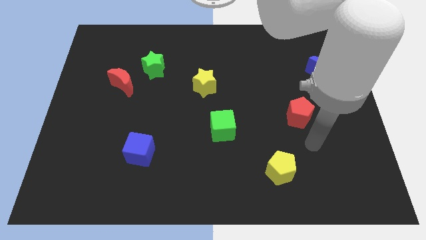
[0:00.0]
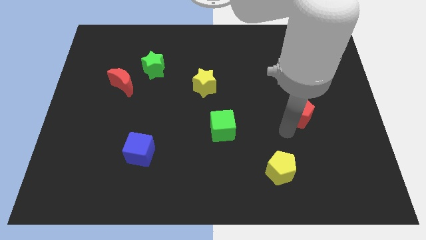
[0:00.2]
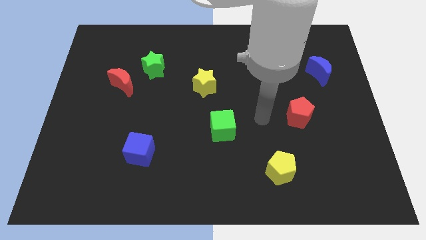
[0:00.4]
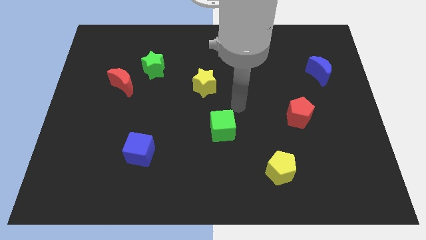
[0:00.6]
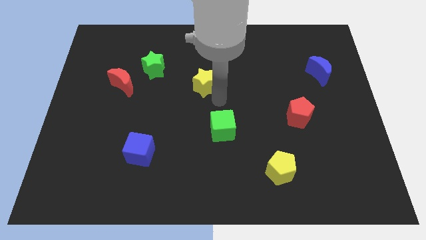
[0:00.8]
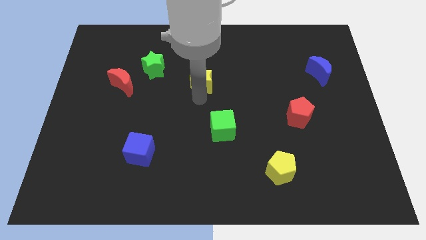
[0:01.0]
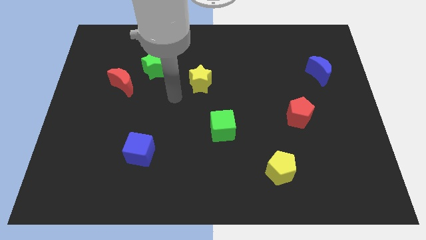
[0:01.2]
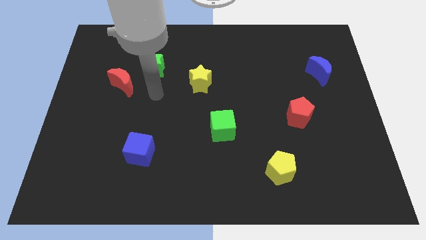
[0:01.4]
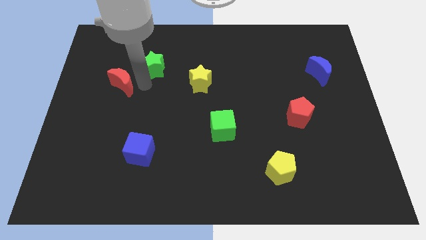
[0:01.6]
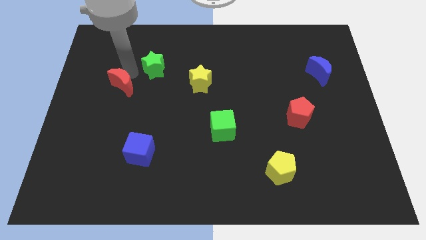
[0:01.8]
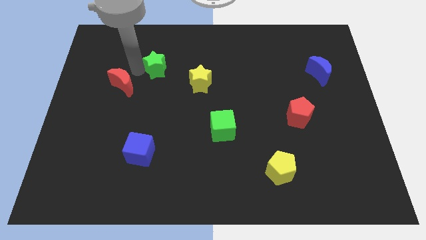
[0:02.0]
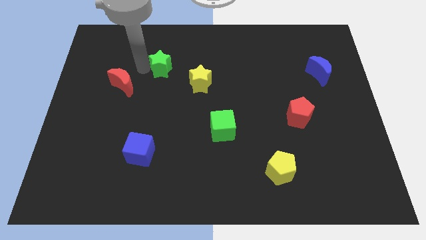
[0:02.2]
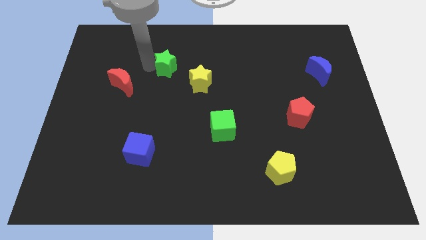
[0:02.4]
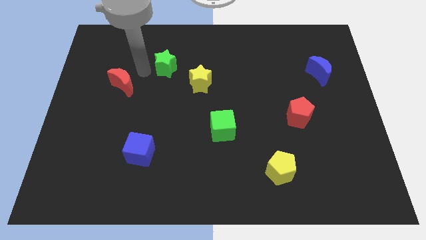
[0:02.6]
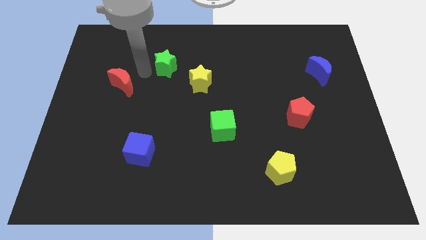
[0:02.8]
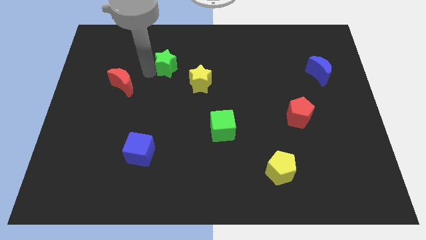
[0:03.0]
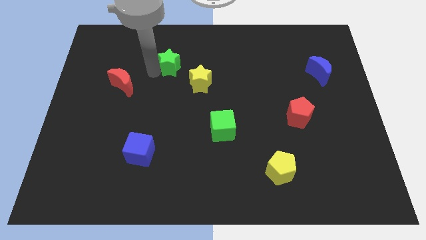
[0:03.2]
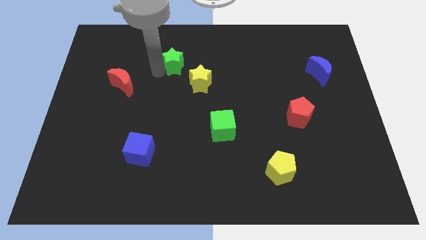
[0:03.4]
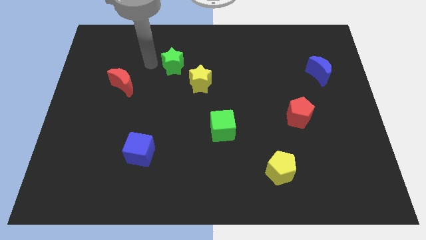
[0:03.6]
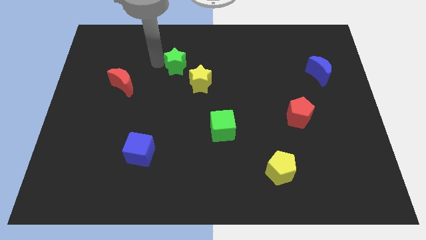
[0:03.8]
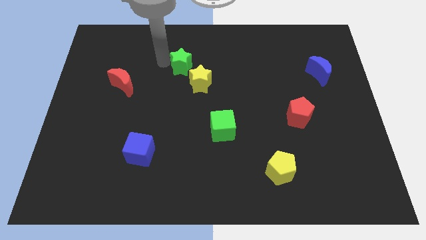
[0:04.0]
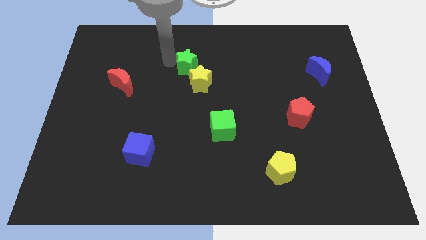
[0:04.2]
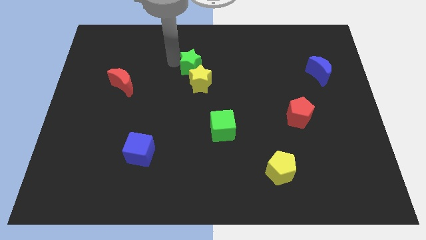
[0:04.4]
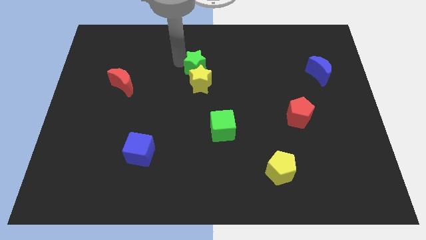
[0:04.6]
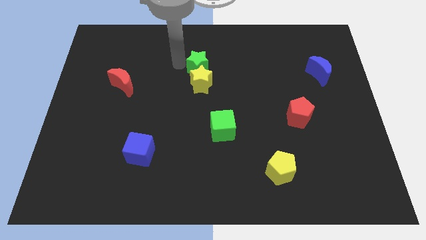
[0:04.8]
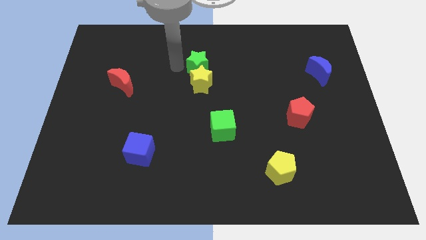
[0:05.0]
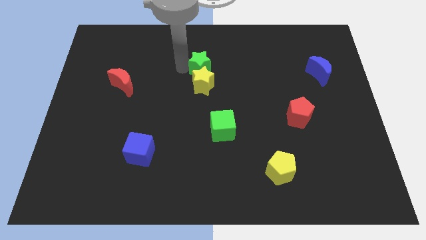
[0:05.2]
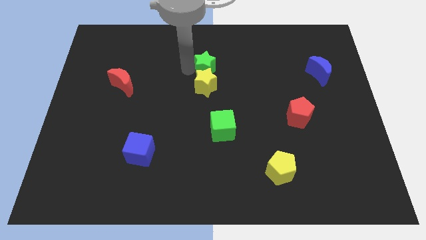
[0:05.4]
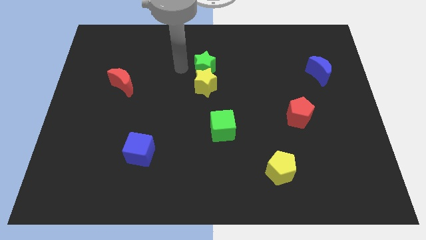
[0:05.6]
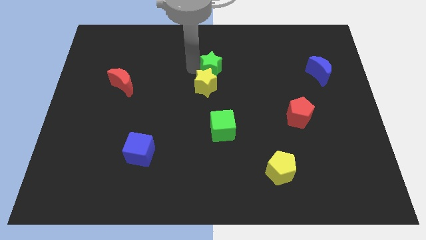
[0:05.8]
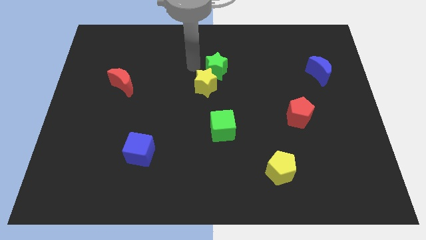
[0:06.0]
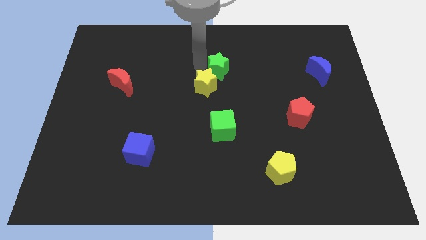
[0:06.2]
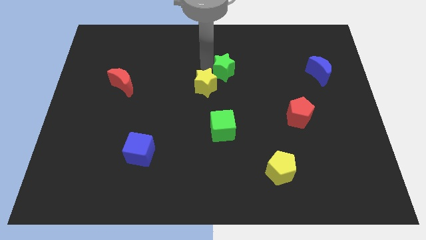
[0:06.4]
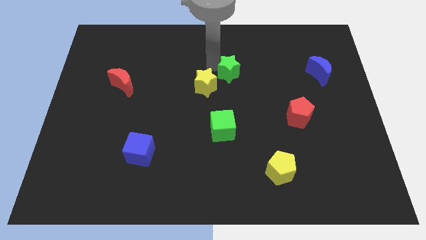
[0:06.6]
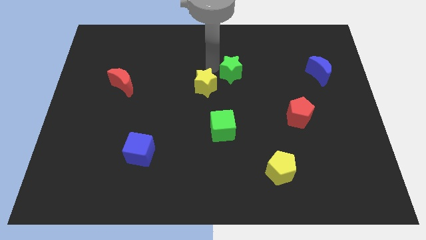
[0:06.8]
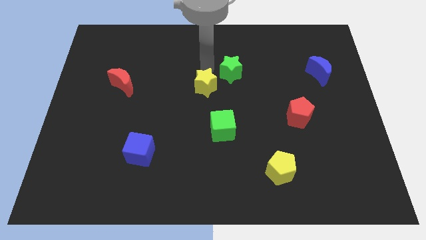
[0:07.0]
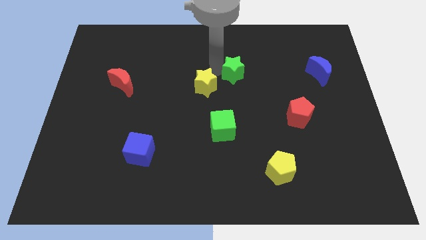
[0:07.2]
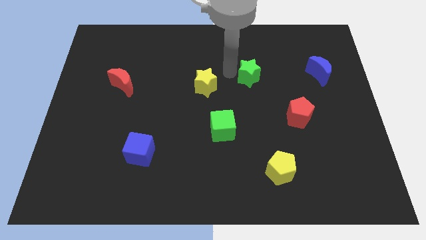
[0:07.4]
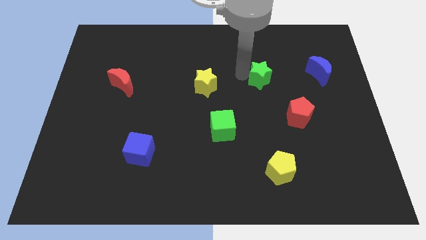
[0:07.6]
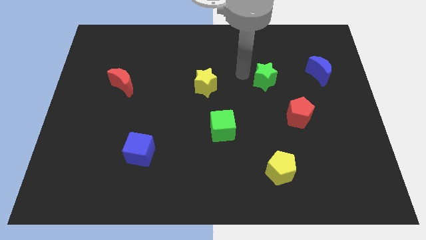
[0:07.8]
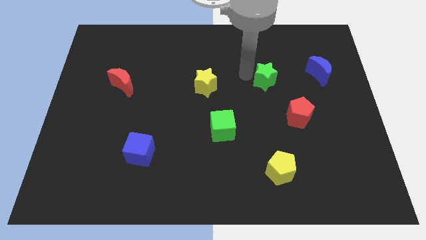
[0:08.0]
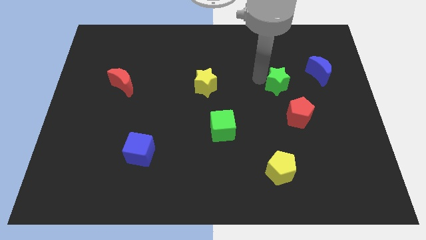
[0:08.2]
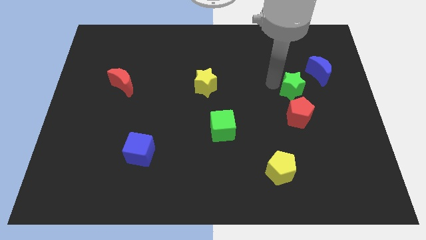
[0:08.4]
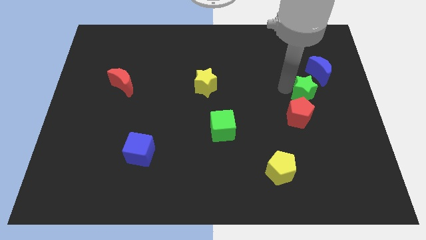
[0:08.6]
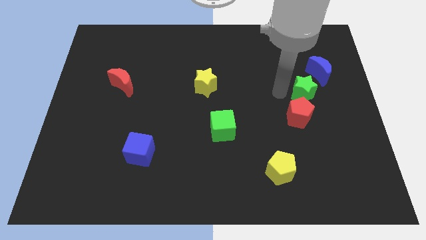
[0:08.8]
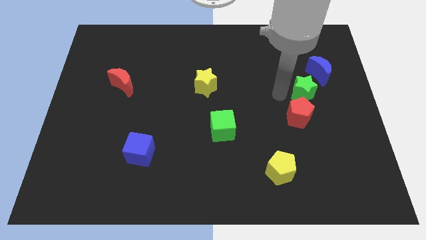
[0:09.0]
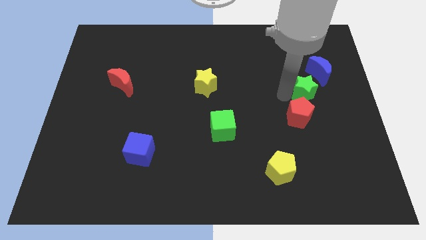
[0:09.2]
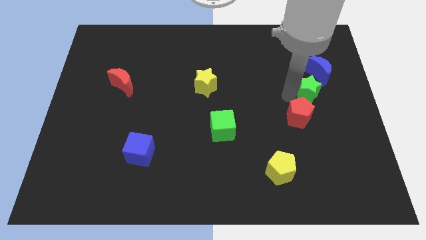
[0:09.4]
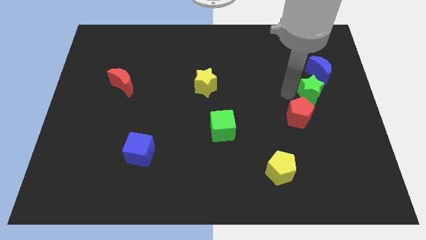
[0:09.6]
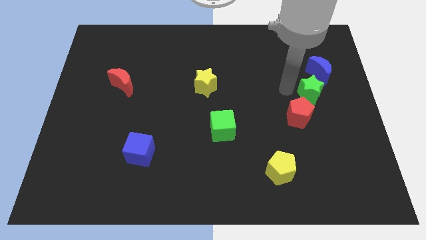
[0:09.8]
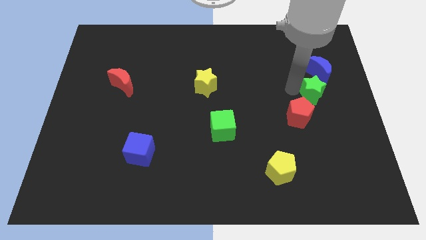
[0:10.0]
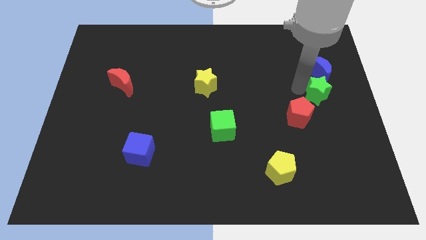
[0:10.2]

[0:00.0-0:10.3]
push the green star to the right side

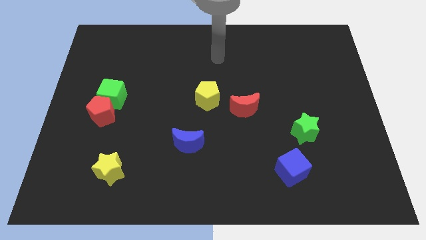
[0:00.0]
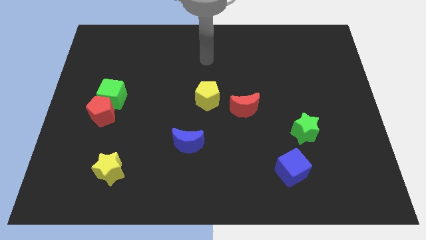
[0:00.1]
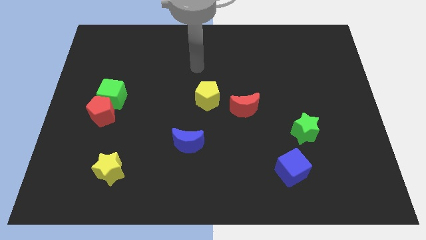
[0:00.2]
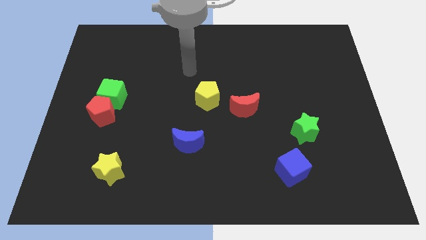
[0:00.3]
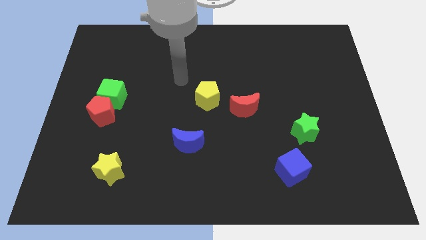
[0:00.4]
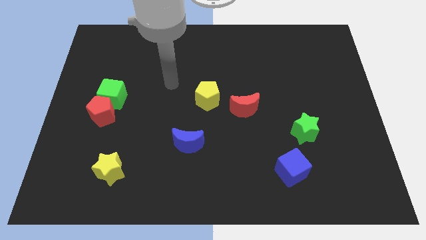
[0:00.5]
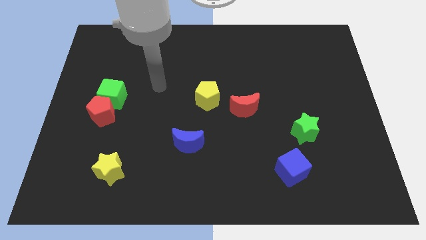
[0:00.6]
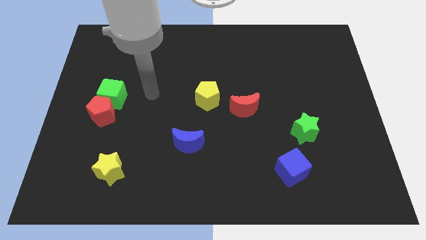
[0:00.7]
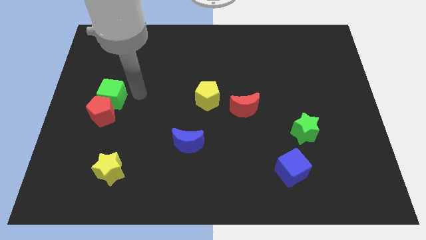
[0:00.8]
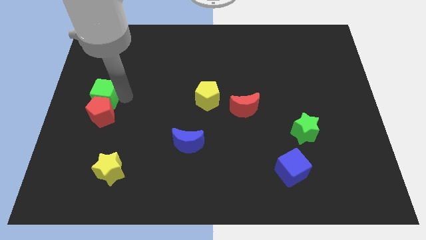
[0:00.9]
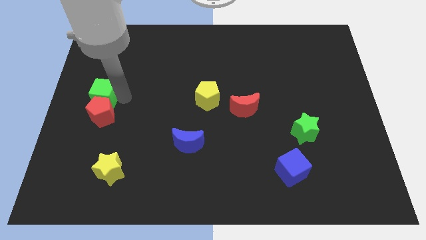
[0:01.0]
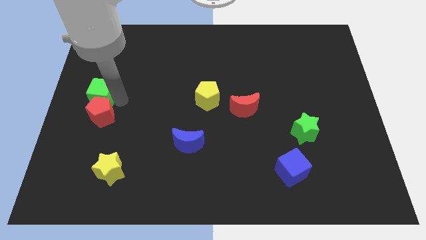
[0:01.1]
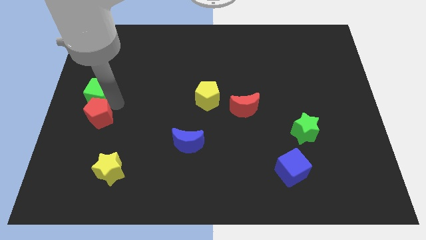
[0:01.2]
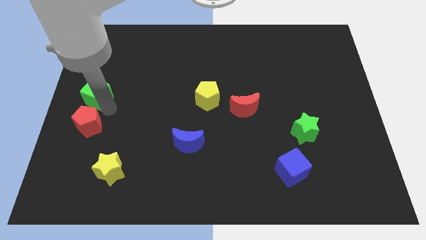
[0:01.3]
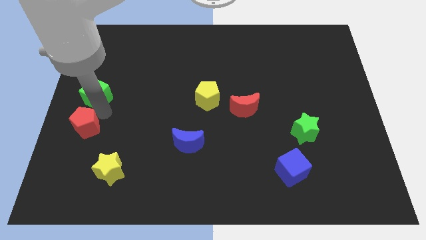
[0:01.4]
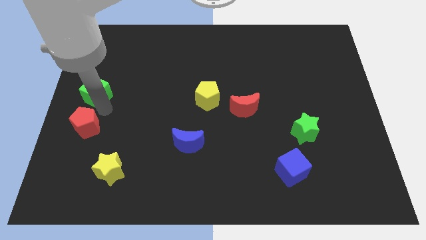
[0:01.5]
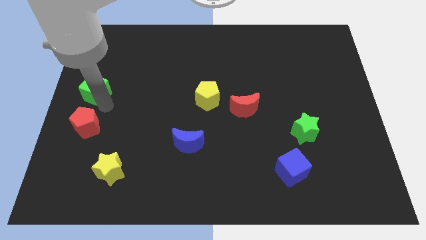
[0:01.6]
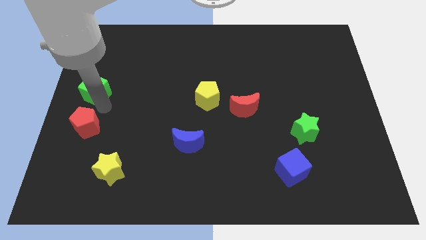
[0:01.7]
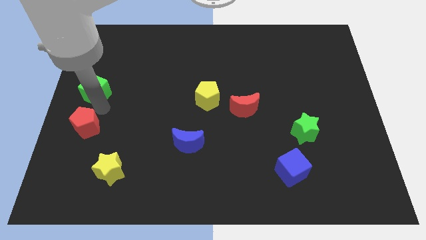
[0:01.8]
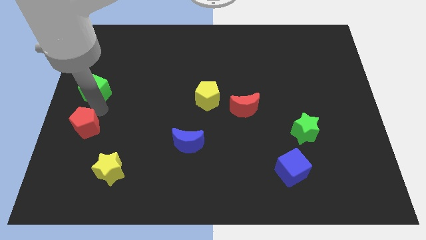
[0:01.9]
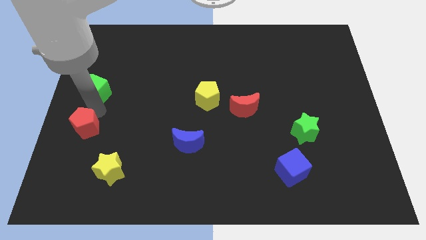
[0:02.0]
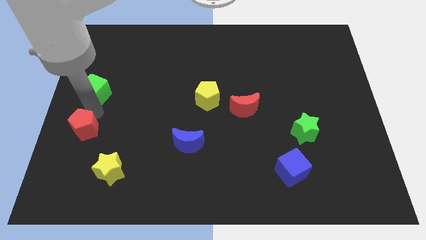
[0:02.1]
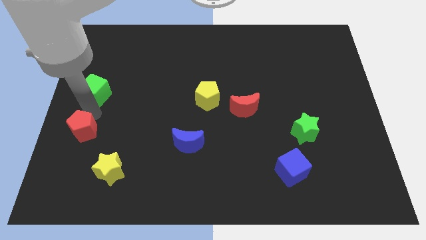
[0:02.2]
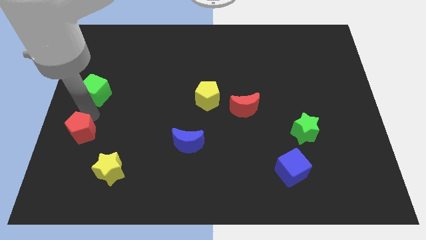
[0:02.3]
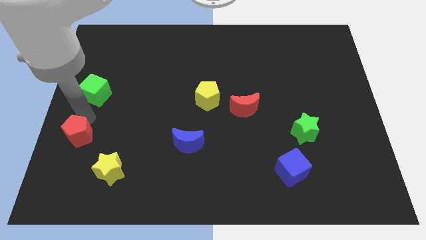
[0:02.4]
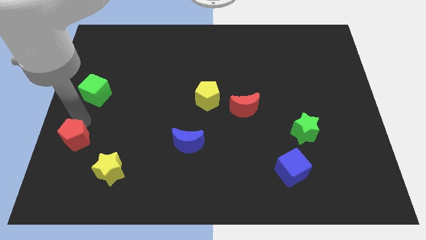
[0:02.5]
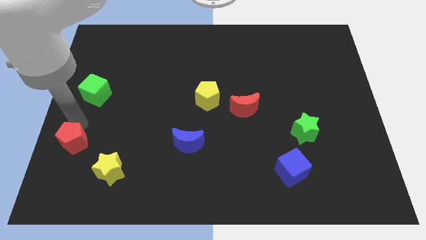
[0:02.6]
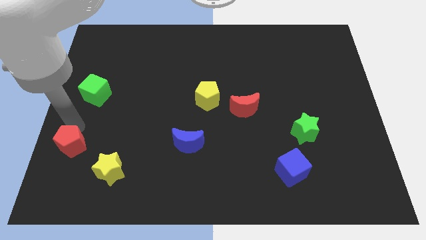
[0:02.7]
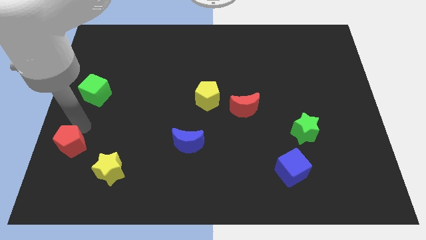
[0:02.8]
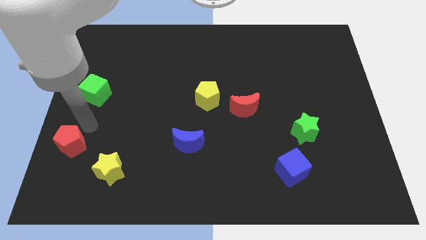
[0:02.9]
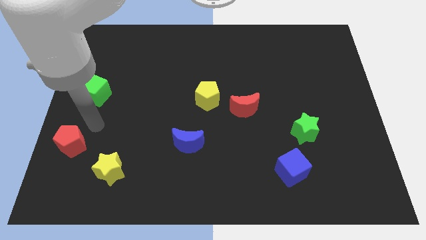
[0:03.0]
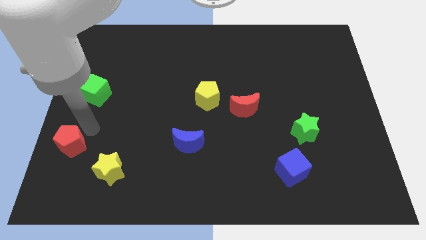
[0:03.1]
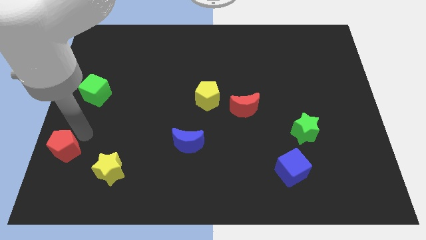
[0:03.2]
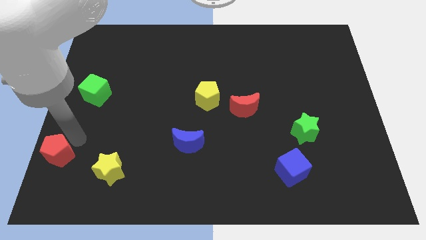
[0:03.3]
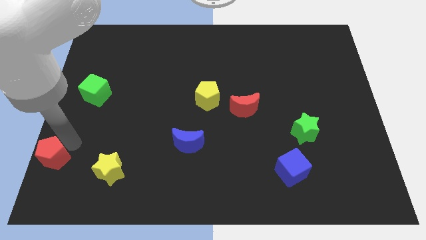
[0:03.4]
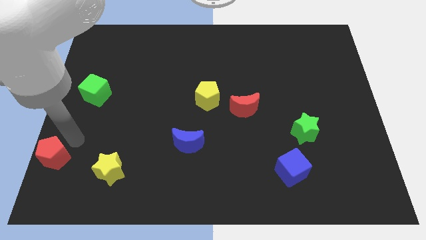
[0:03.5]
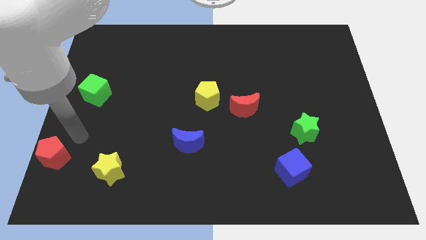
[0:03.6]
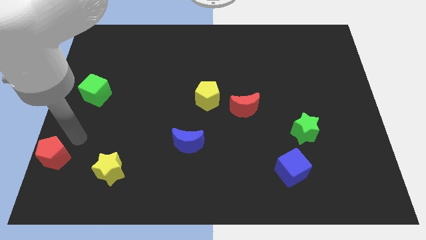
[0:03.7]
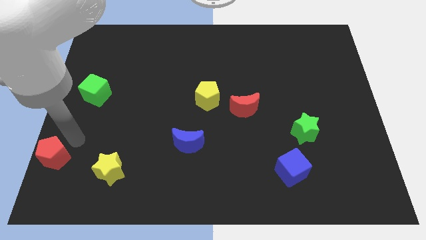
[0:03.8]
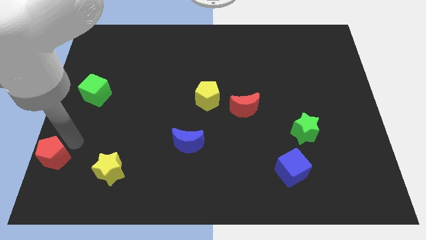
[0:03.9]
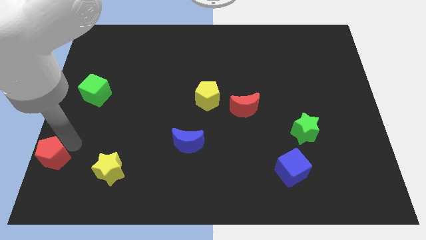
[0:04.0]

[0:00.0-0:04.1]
move the red pentagon to the bottom left
